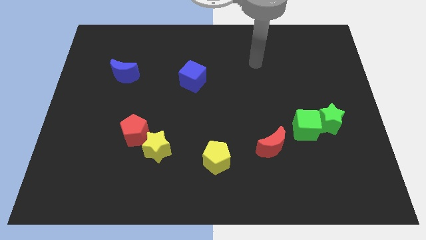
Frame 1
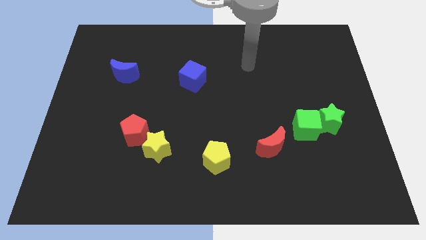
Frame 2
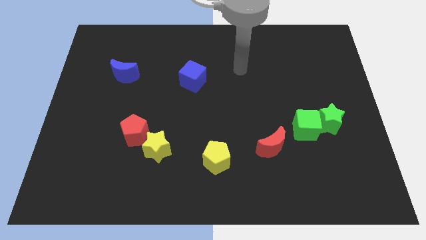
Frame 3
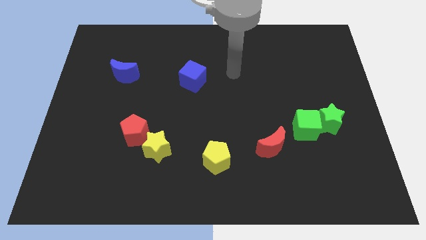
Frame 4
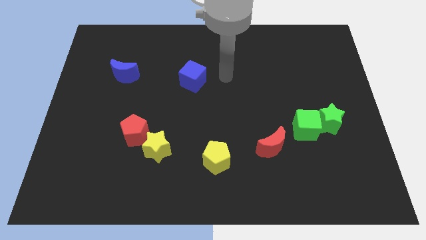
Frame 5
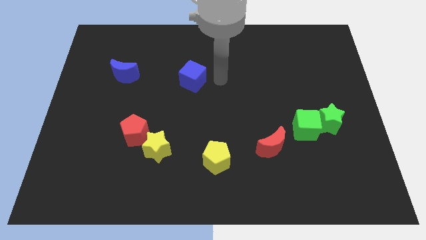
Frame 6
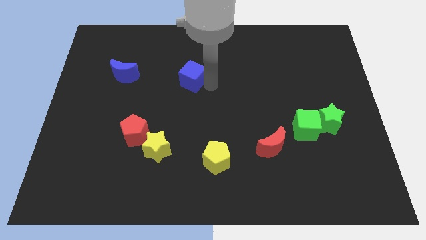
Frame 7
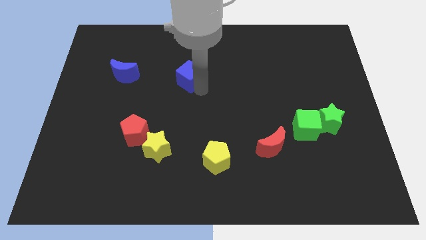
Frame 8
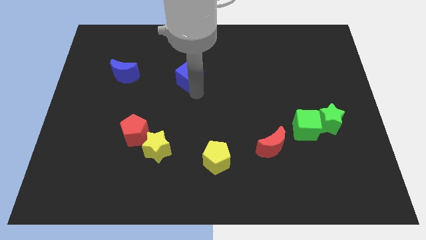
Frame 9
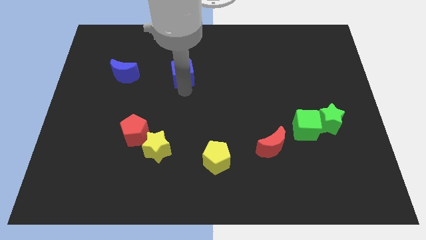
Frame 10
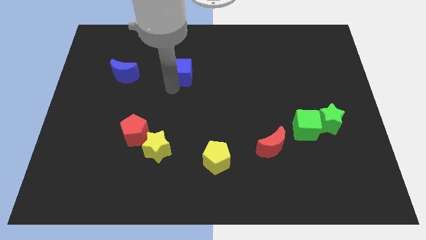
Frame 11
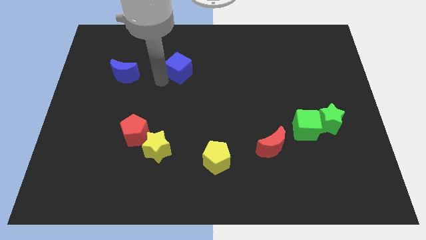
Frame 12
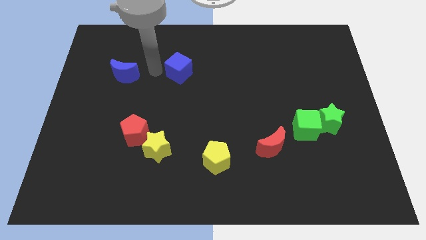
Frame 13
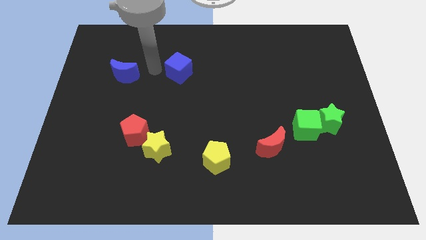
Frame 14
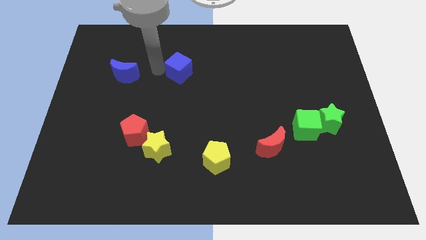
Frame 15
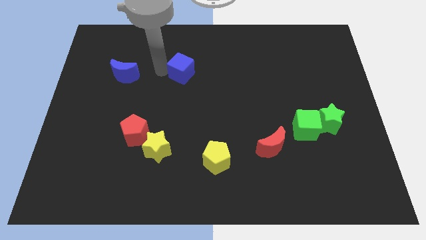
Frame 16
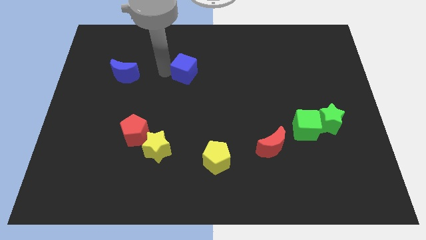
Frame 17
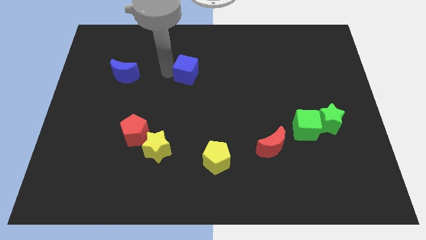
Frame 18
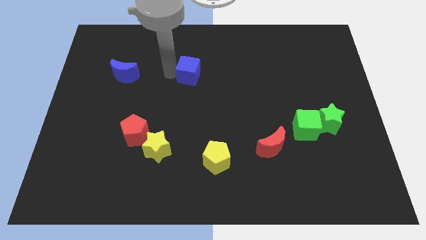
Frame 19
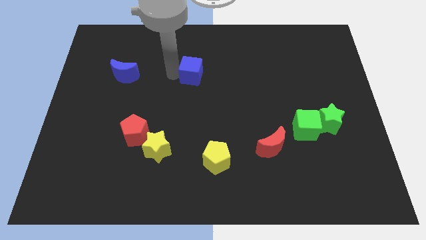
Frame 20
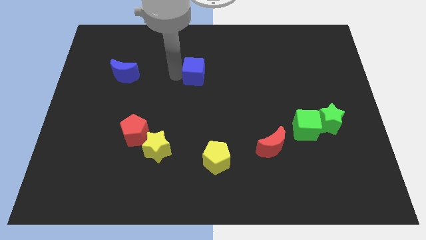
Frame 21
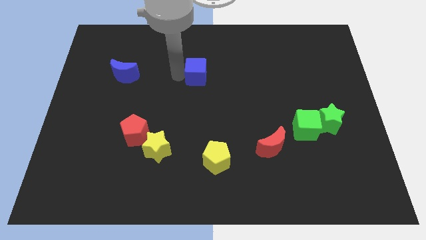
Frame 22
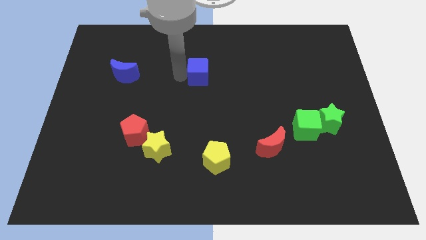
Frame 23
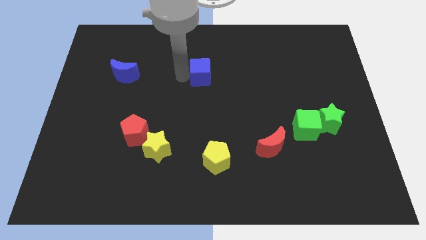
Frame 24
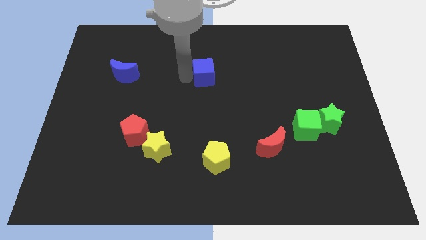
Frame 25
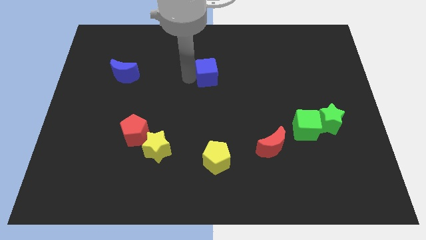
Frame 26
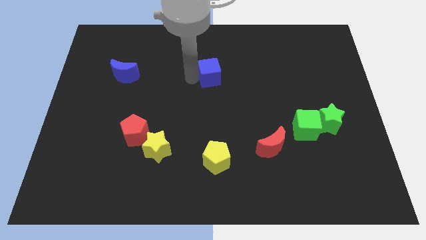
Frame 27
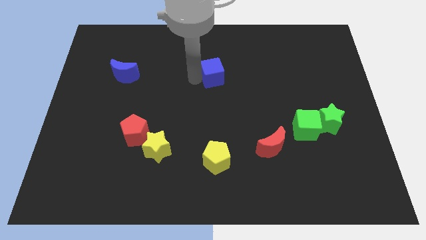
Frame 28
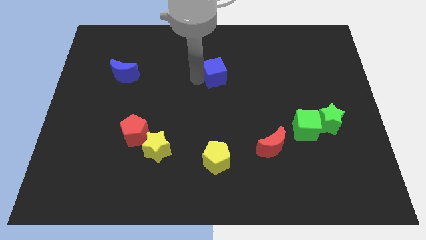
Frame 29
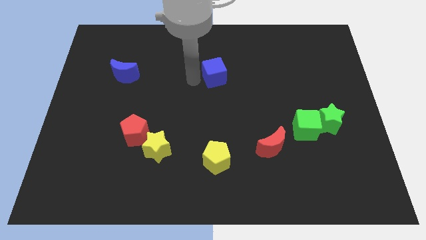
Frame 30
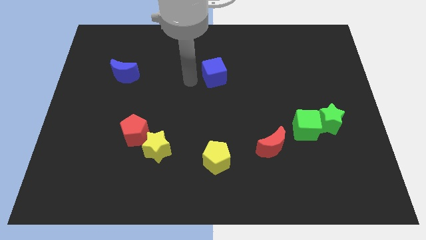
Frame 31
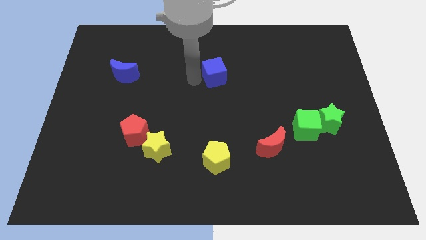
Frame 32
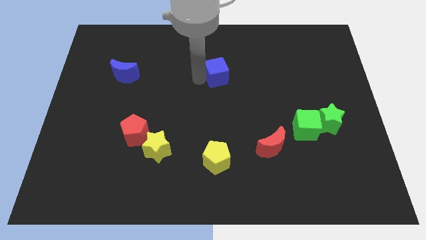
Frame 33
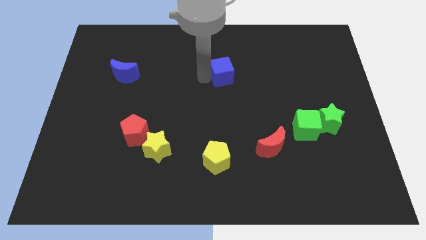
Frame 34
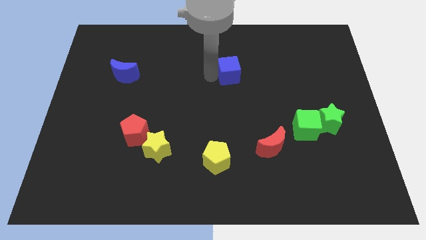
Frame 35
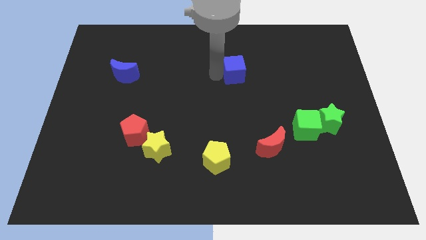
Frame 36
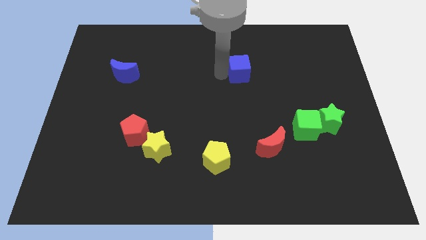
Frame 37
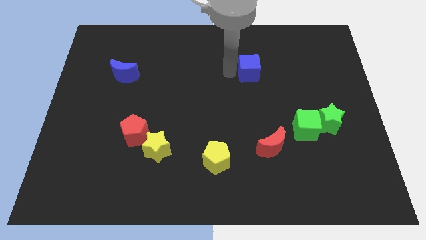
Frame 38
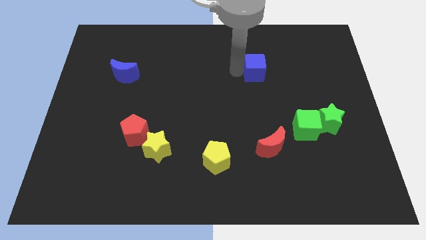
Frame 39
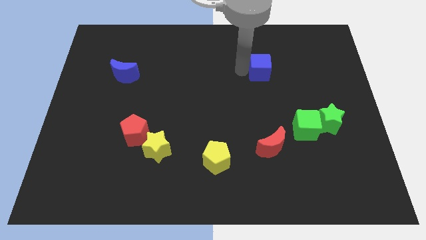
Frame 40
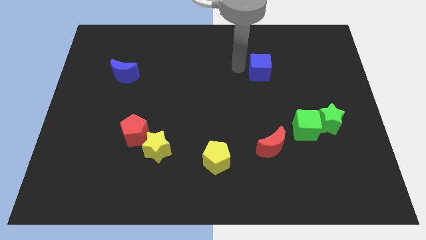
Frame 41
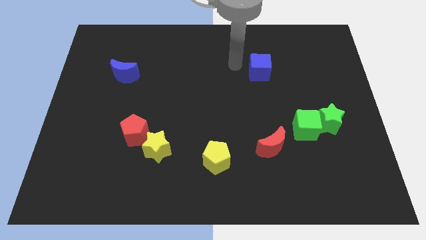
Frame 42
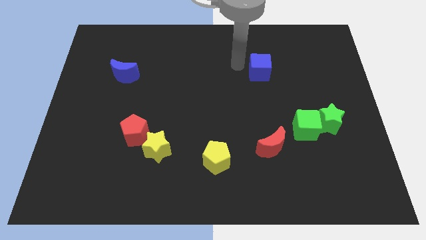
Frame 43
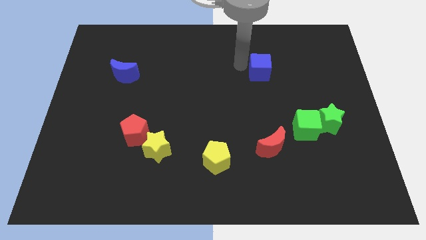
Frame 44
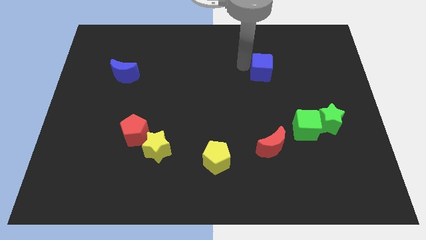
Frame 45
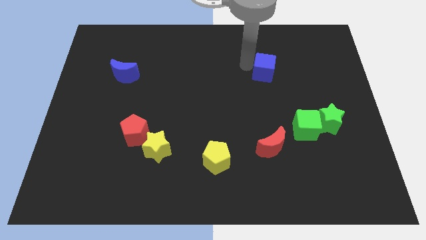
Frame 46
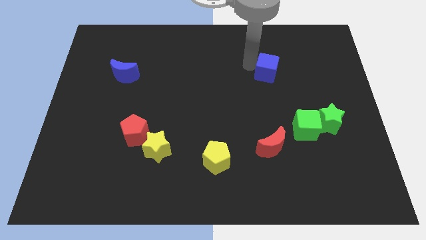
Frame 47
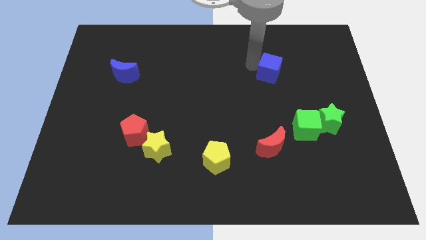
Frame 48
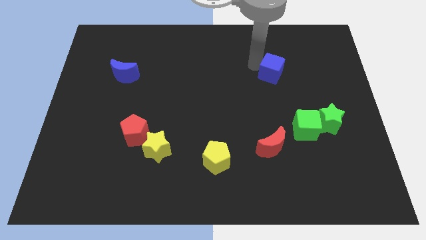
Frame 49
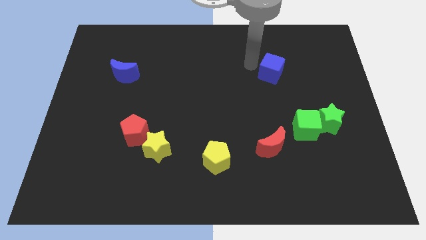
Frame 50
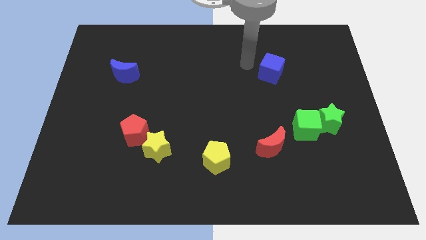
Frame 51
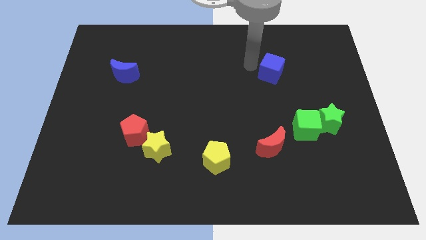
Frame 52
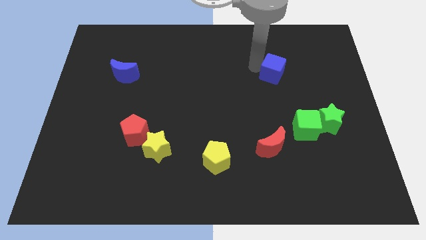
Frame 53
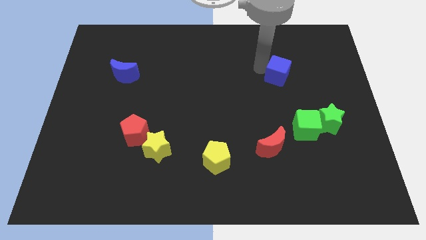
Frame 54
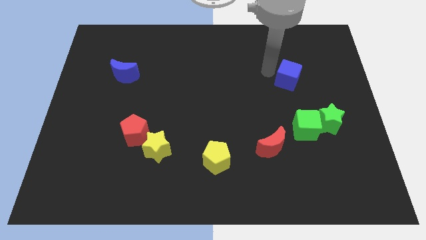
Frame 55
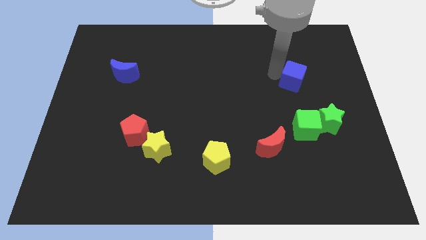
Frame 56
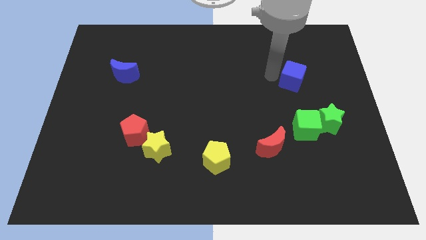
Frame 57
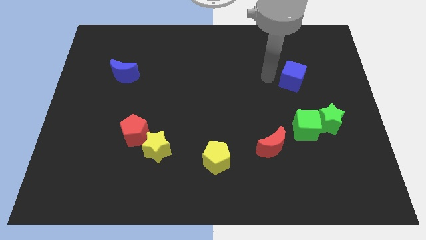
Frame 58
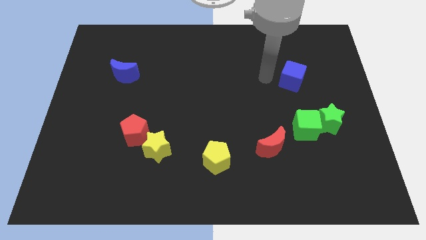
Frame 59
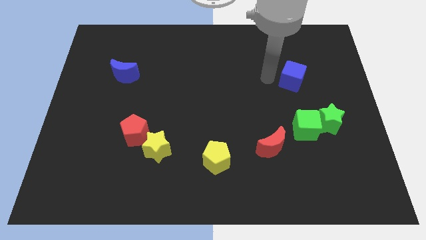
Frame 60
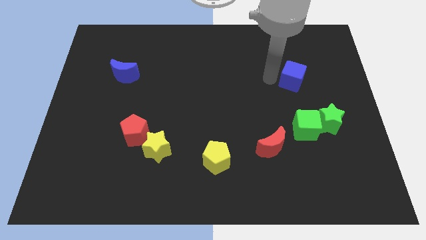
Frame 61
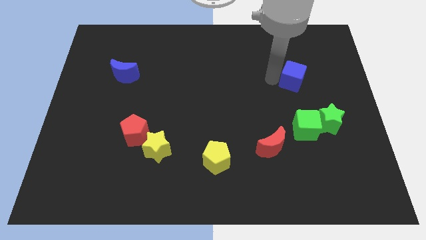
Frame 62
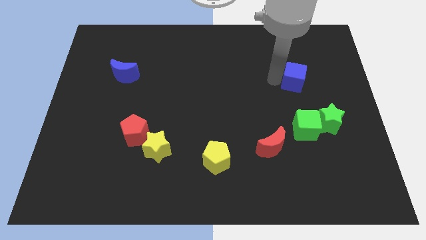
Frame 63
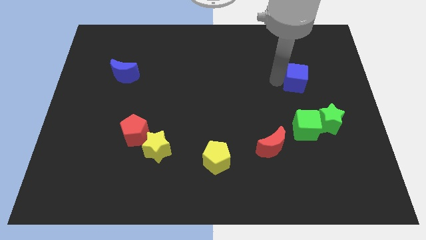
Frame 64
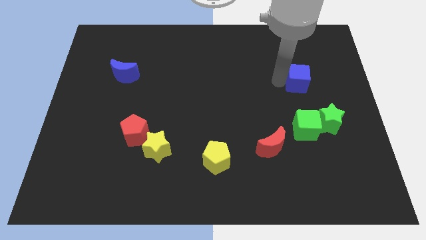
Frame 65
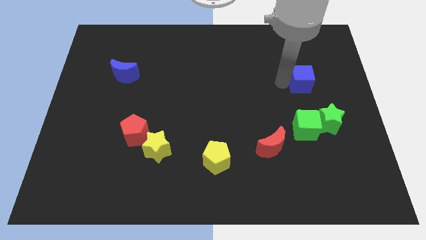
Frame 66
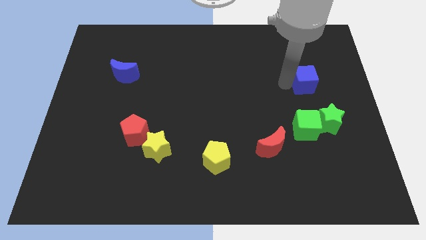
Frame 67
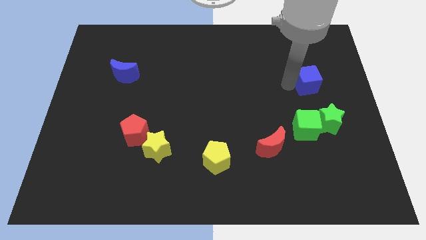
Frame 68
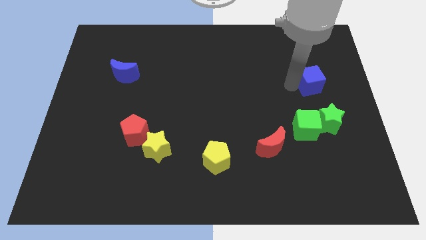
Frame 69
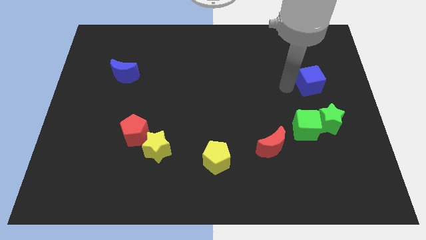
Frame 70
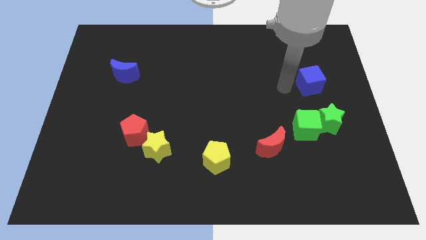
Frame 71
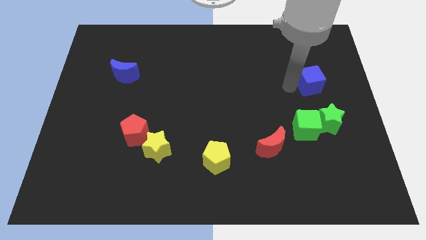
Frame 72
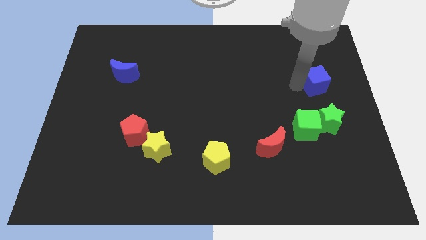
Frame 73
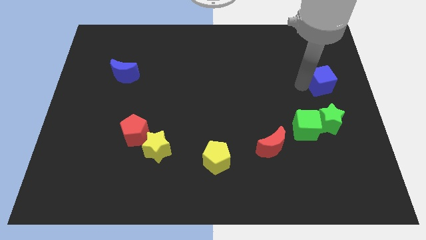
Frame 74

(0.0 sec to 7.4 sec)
slide the blue cube to the right side

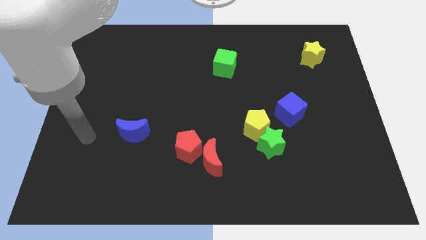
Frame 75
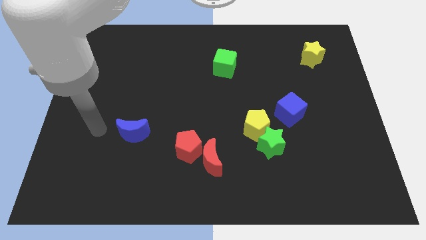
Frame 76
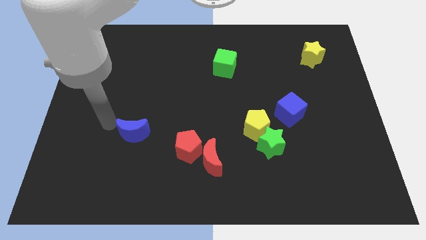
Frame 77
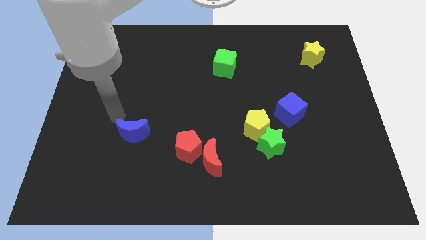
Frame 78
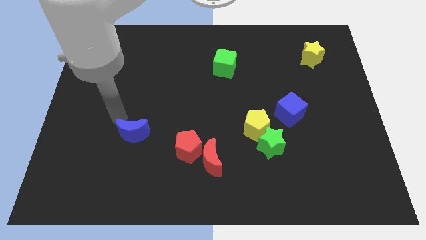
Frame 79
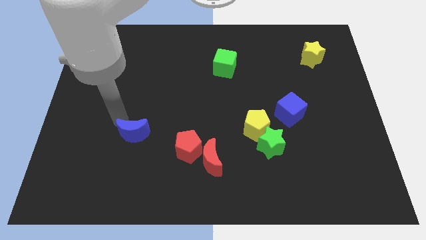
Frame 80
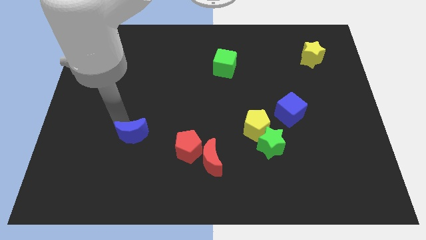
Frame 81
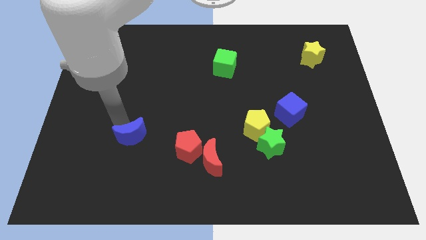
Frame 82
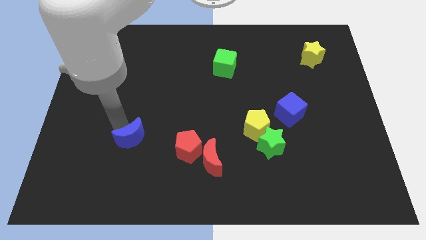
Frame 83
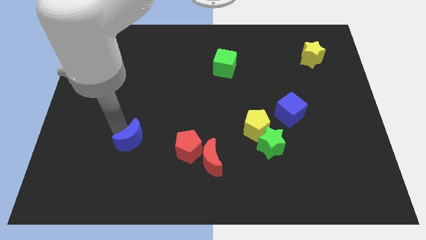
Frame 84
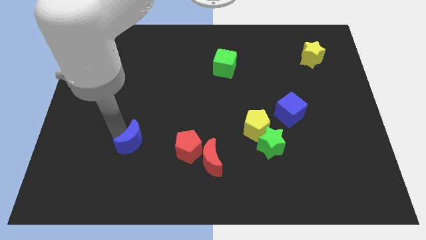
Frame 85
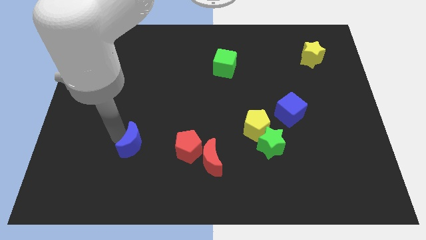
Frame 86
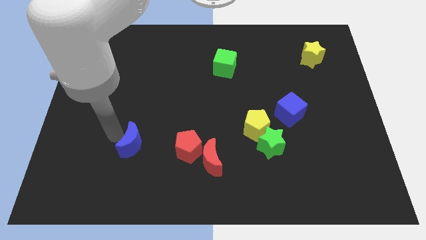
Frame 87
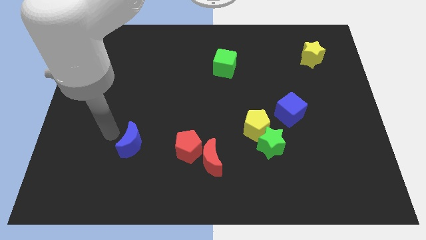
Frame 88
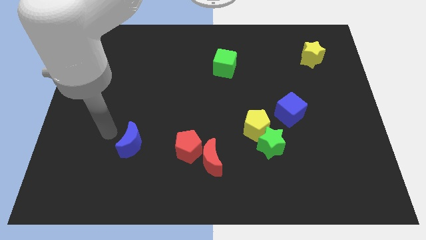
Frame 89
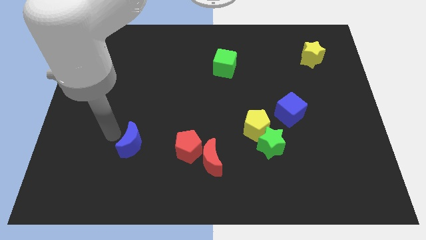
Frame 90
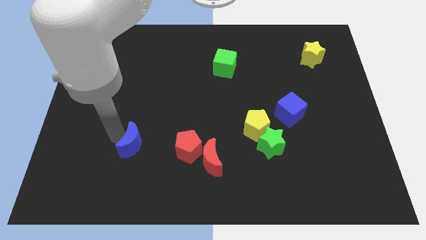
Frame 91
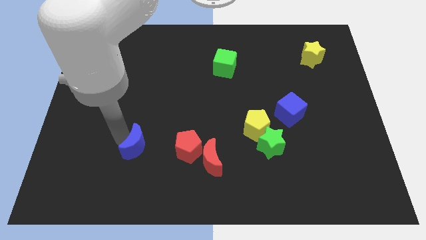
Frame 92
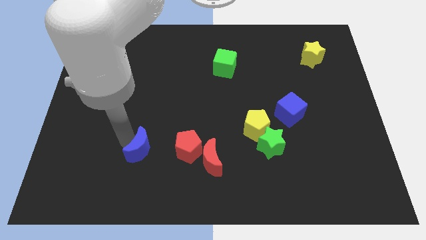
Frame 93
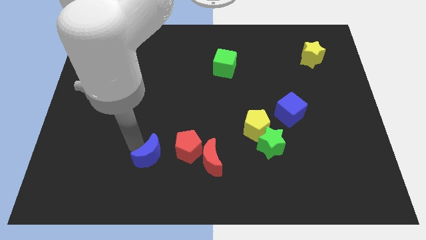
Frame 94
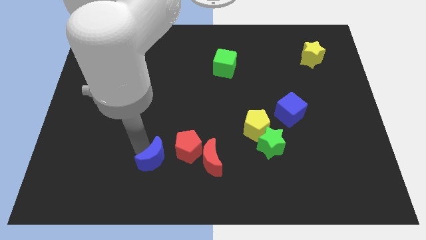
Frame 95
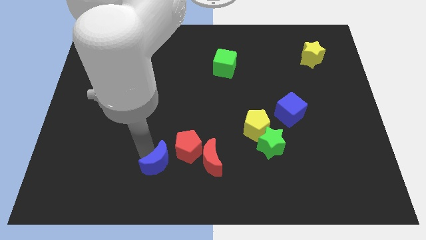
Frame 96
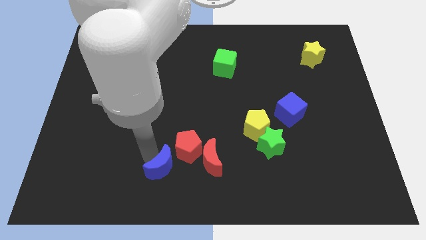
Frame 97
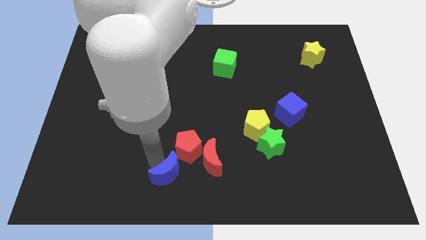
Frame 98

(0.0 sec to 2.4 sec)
put the blue moon to the bottom
